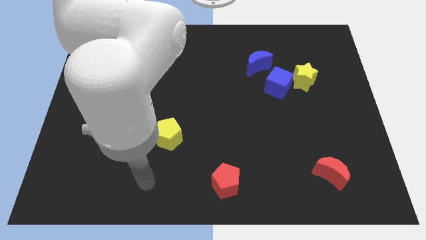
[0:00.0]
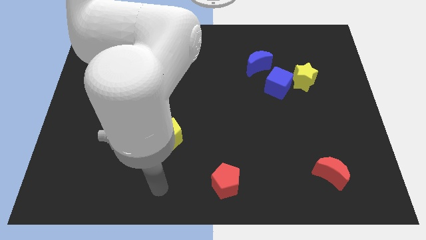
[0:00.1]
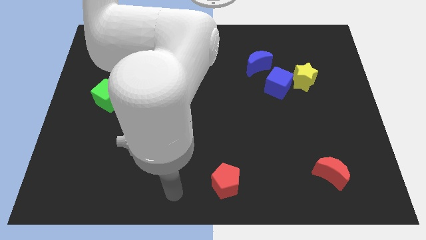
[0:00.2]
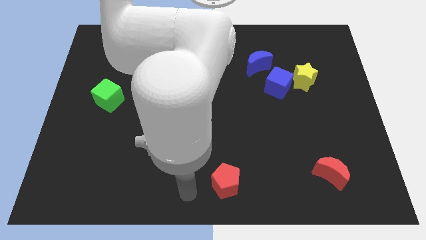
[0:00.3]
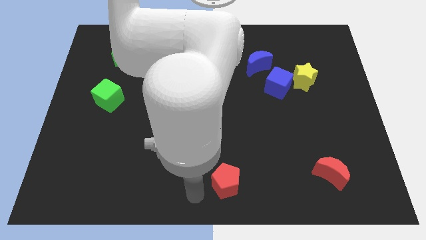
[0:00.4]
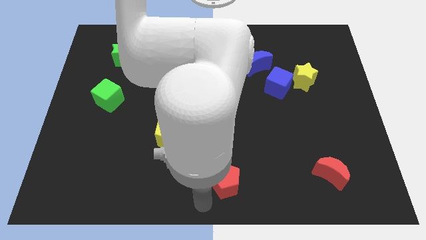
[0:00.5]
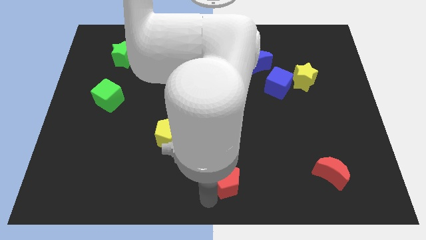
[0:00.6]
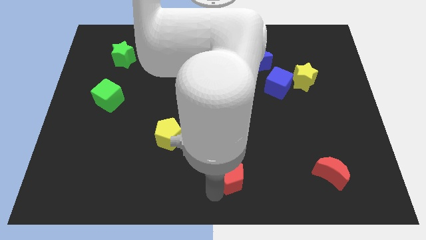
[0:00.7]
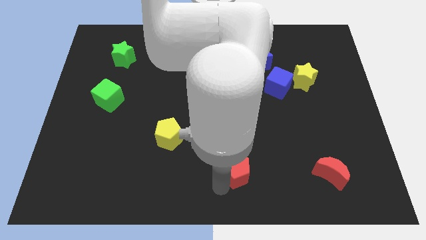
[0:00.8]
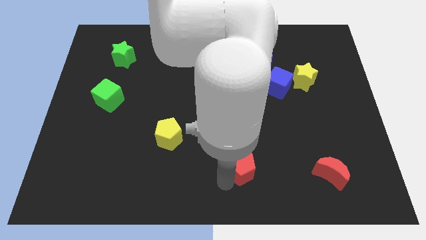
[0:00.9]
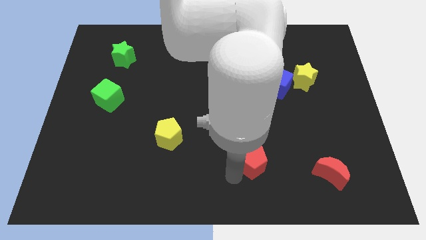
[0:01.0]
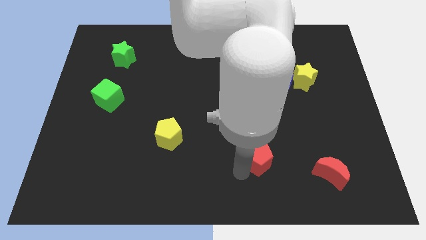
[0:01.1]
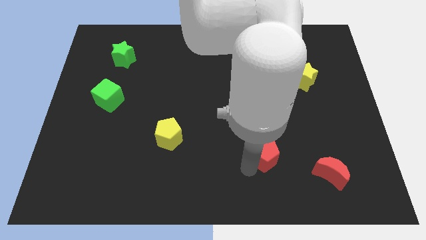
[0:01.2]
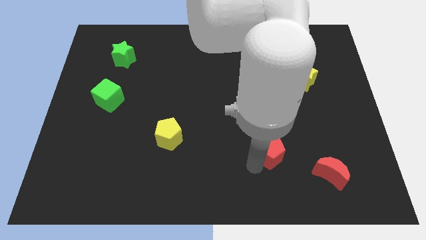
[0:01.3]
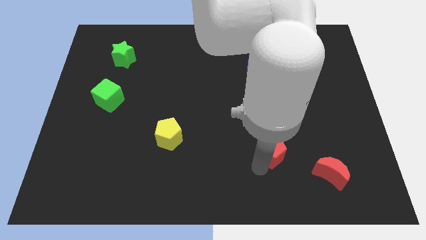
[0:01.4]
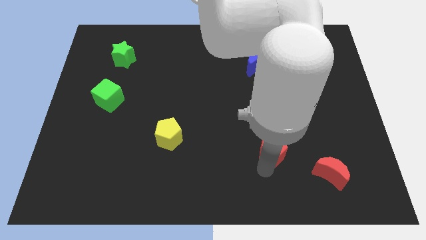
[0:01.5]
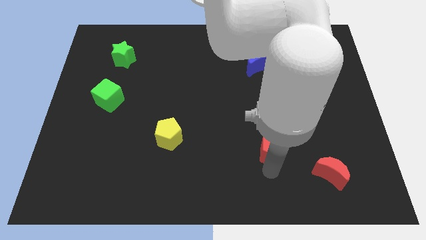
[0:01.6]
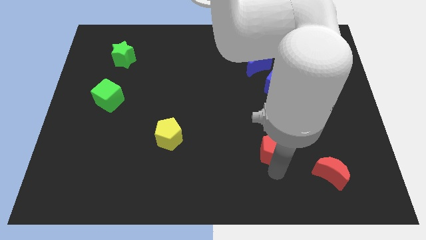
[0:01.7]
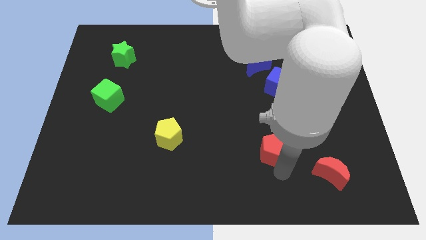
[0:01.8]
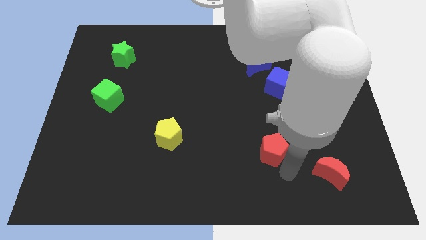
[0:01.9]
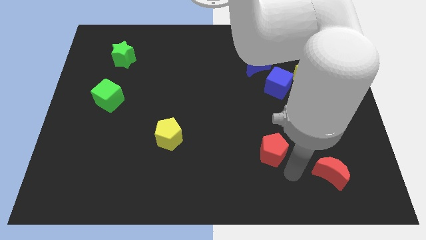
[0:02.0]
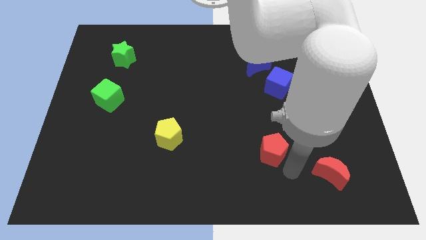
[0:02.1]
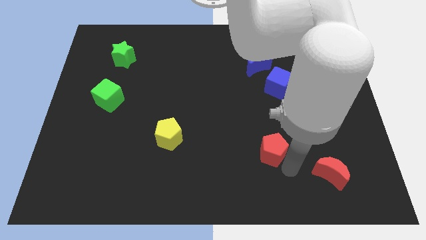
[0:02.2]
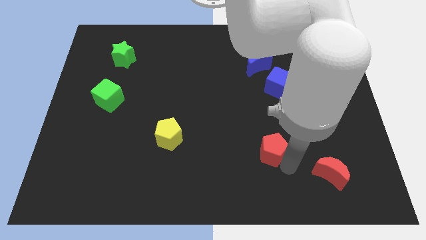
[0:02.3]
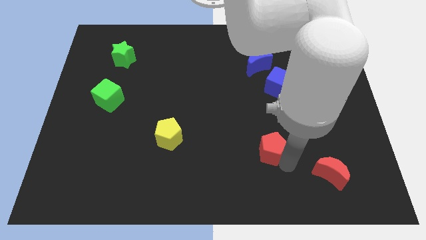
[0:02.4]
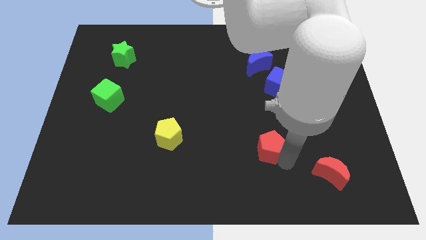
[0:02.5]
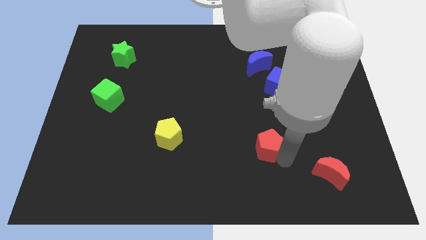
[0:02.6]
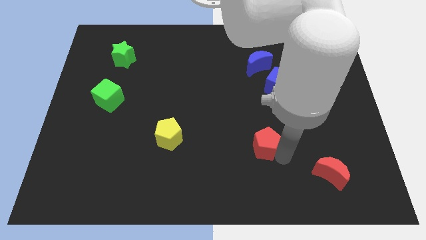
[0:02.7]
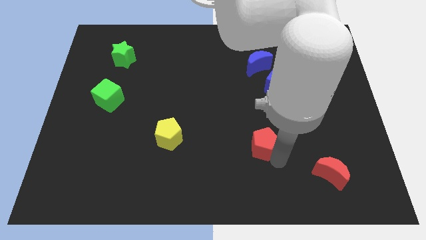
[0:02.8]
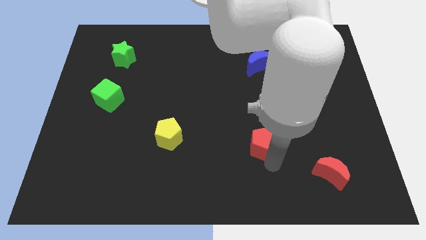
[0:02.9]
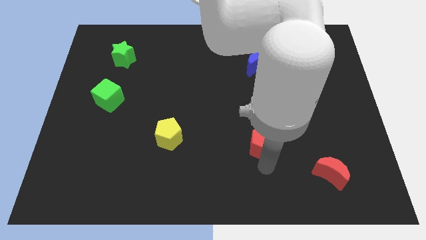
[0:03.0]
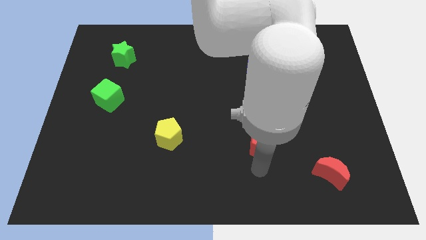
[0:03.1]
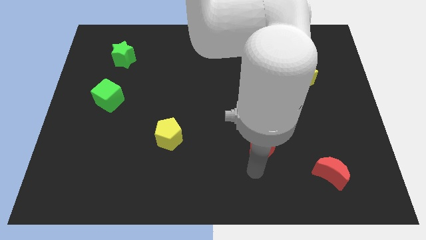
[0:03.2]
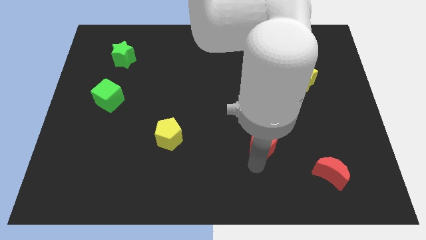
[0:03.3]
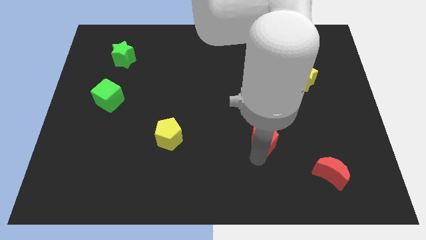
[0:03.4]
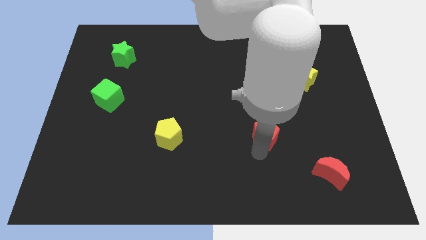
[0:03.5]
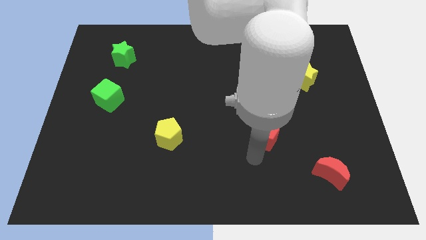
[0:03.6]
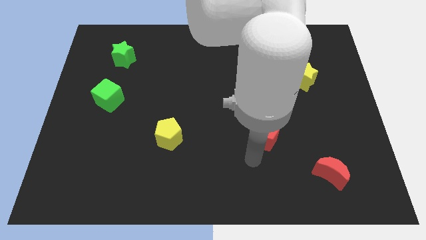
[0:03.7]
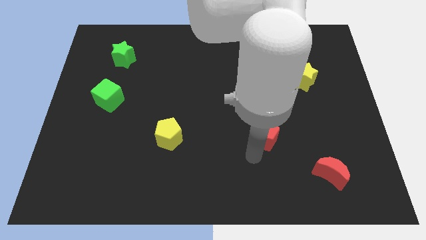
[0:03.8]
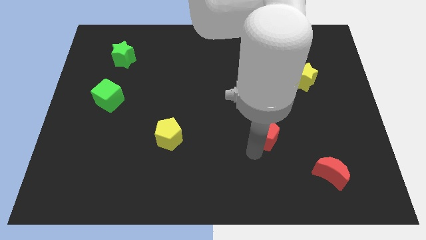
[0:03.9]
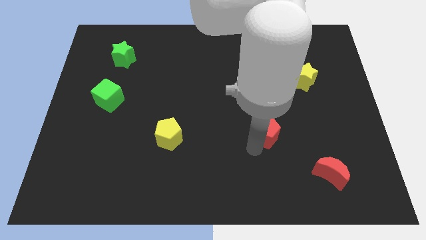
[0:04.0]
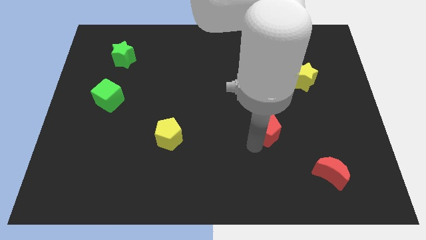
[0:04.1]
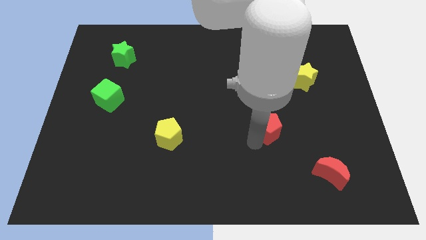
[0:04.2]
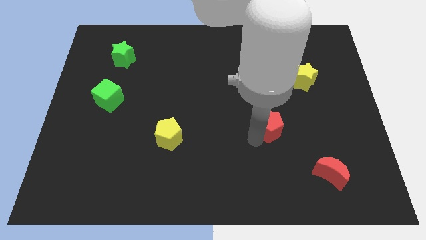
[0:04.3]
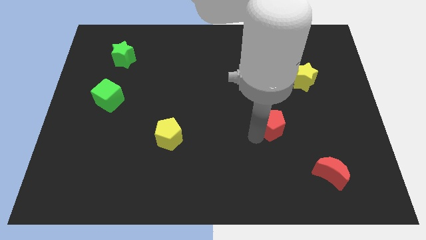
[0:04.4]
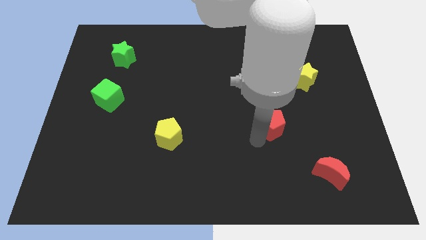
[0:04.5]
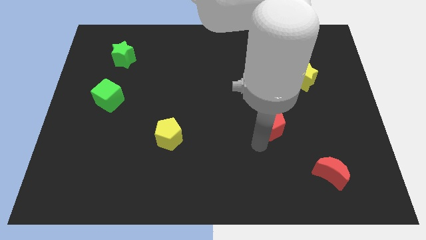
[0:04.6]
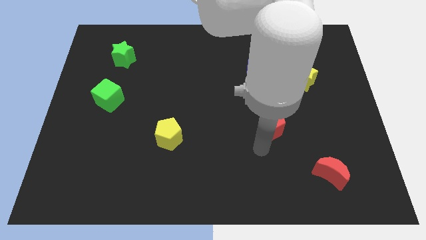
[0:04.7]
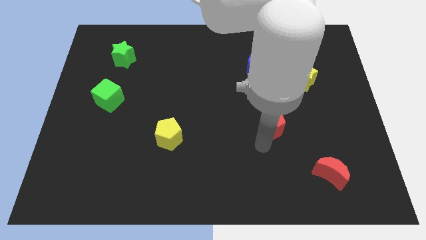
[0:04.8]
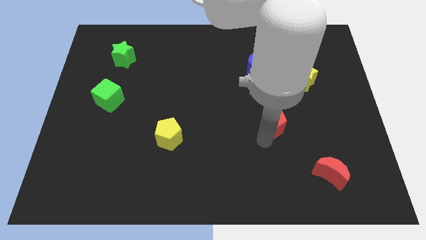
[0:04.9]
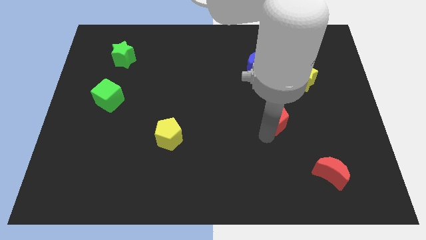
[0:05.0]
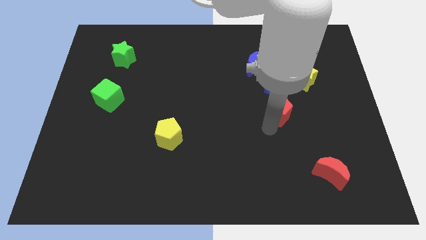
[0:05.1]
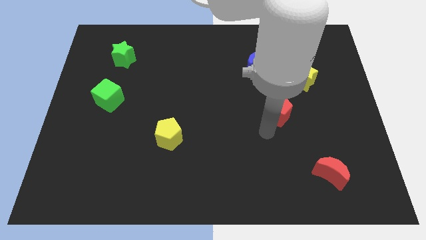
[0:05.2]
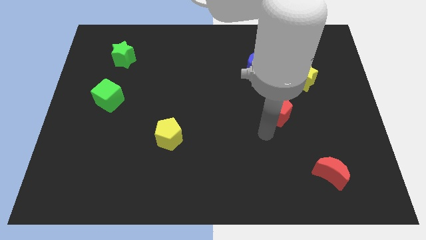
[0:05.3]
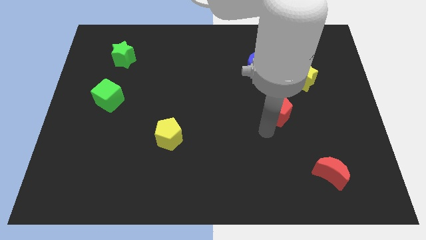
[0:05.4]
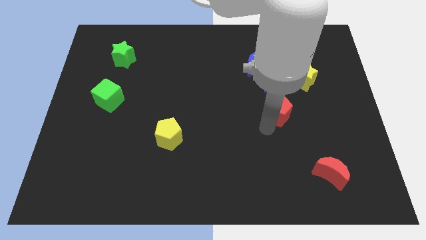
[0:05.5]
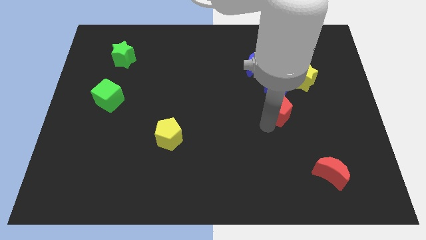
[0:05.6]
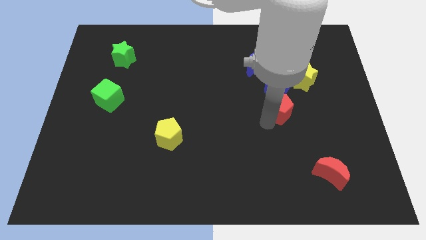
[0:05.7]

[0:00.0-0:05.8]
push the red pentagon to the bottom left of the yellow star
